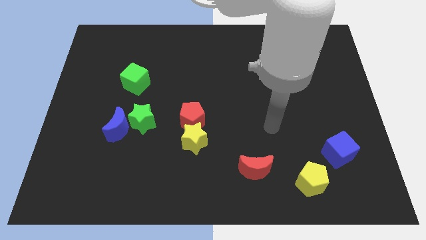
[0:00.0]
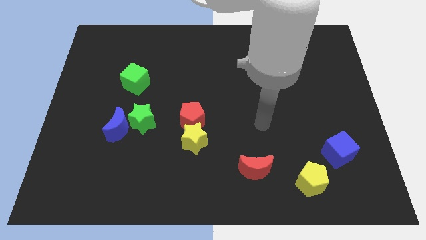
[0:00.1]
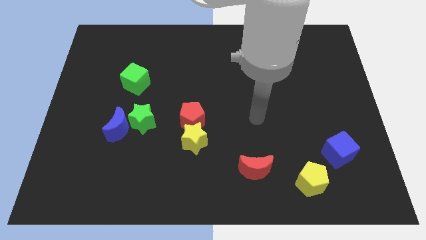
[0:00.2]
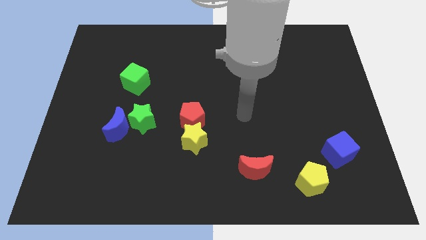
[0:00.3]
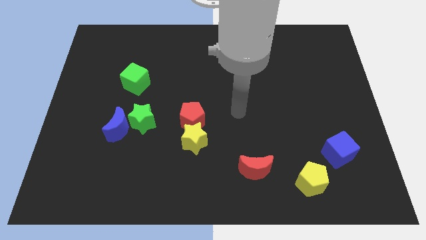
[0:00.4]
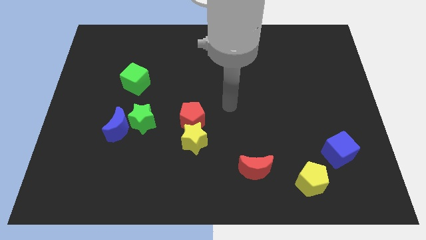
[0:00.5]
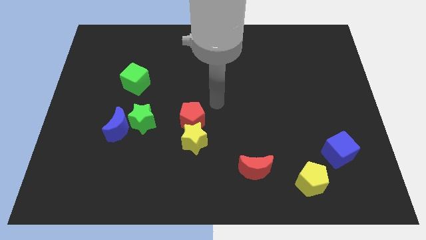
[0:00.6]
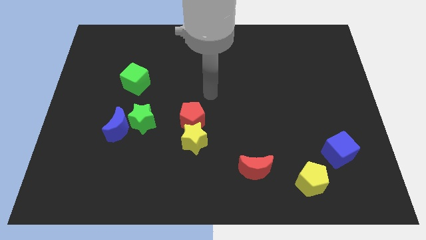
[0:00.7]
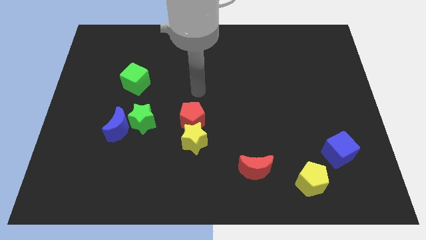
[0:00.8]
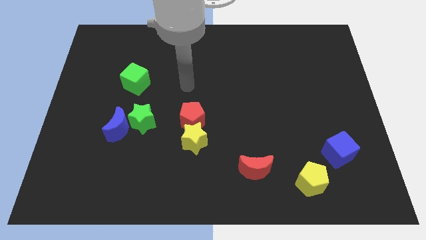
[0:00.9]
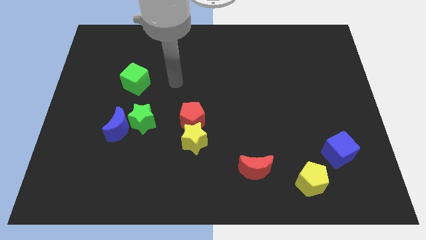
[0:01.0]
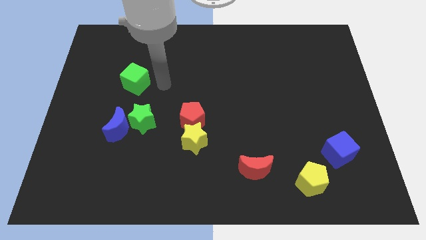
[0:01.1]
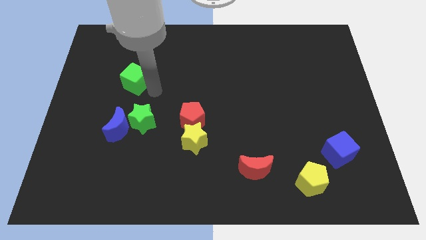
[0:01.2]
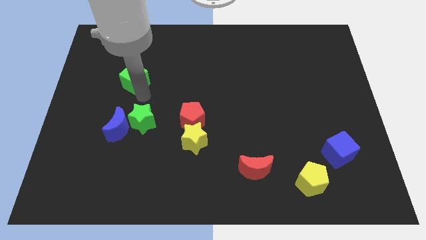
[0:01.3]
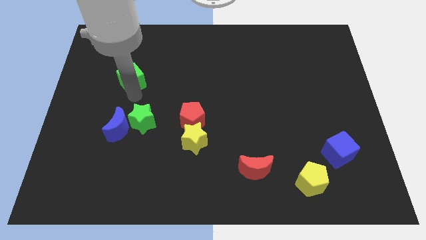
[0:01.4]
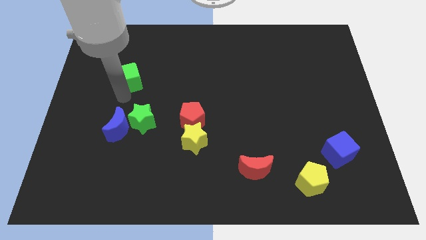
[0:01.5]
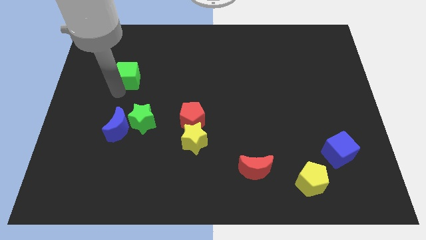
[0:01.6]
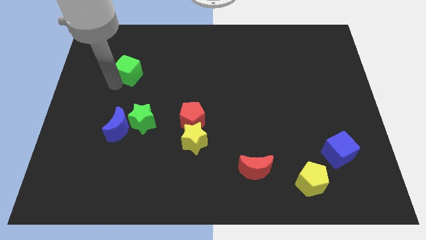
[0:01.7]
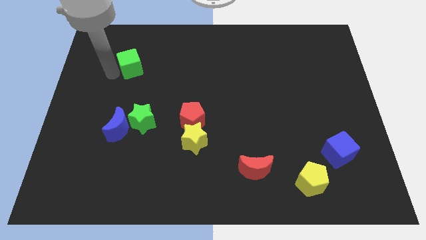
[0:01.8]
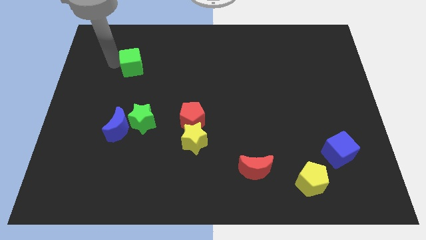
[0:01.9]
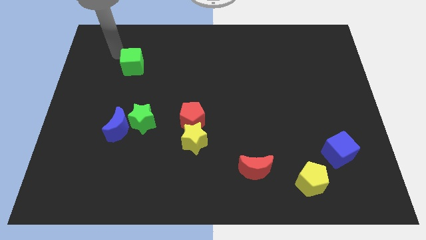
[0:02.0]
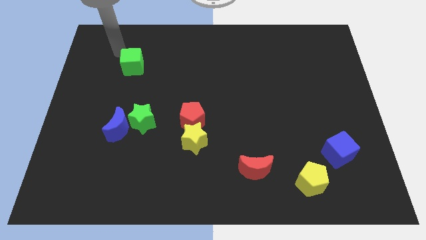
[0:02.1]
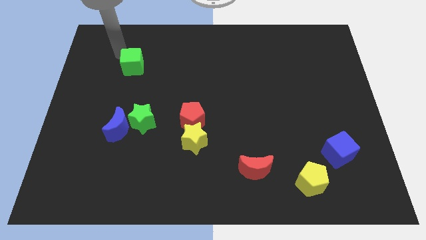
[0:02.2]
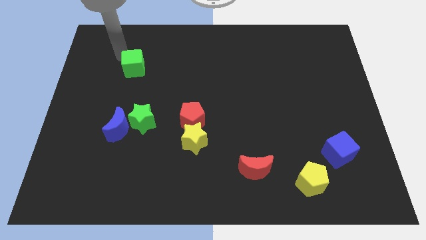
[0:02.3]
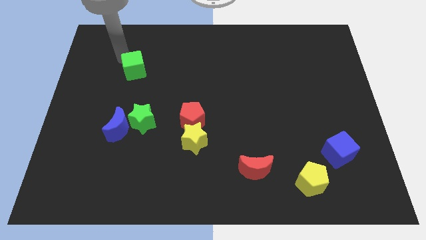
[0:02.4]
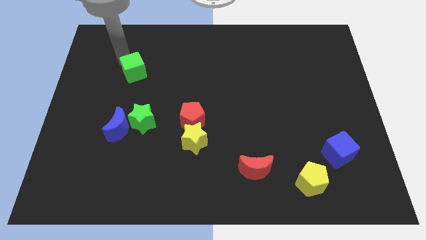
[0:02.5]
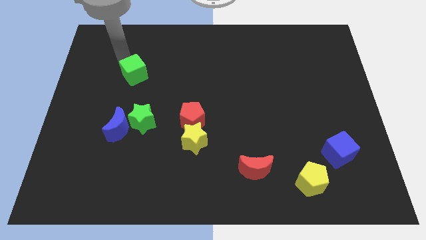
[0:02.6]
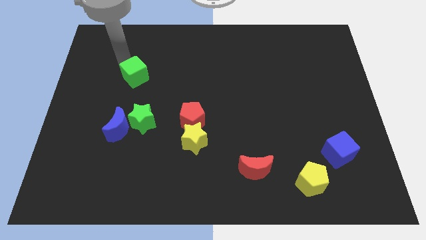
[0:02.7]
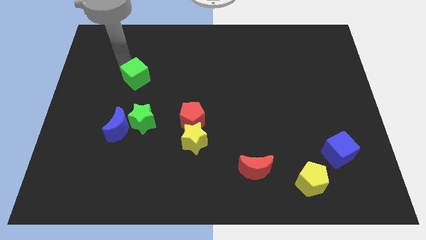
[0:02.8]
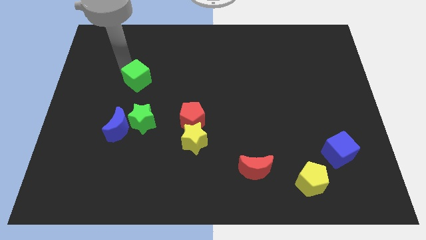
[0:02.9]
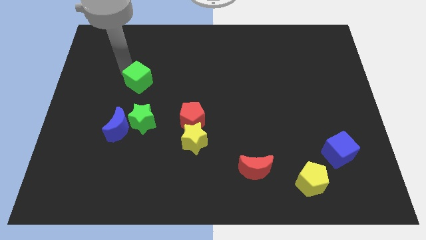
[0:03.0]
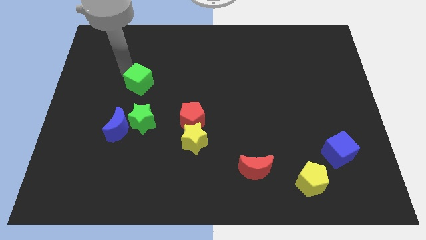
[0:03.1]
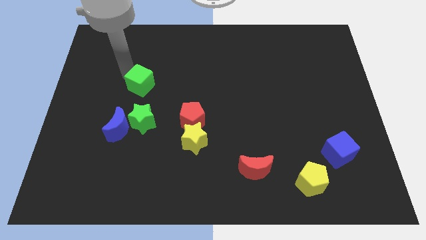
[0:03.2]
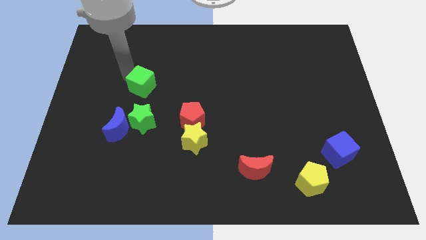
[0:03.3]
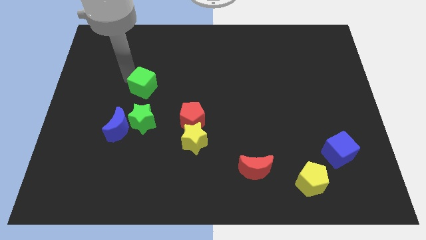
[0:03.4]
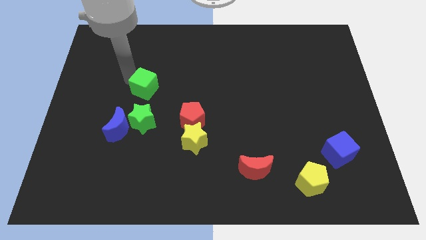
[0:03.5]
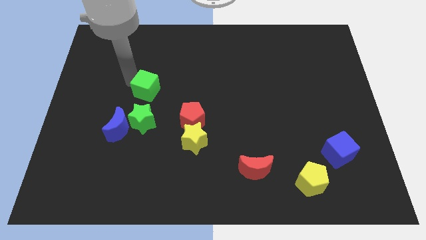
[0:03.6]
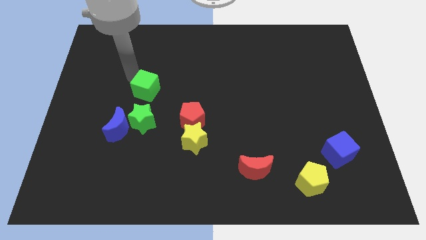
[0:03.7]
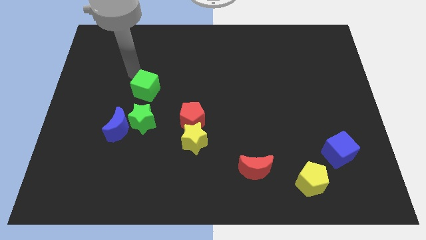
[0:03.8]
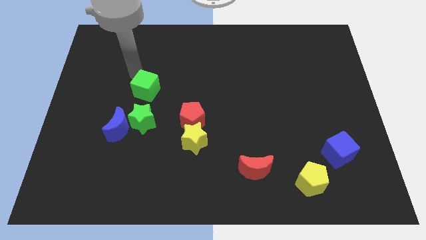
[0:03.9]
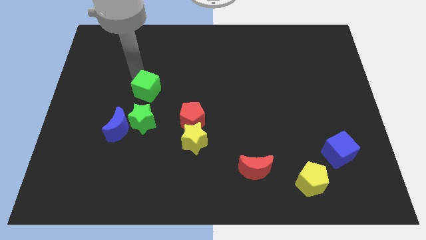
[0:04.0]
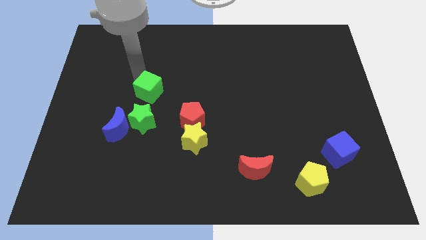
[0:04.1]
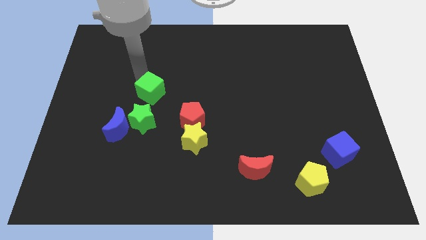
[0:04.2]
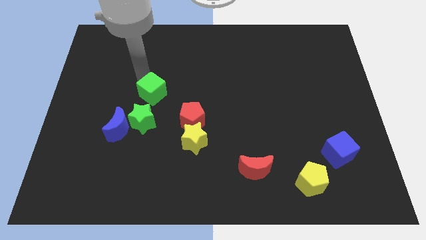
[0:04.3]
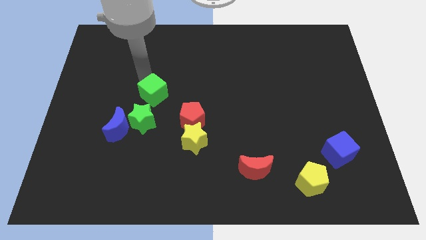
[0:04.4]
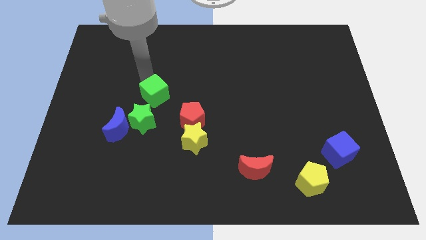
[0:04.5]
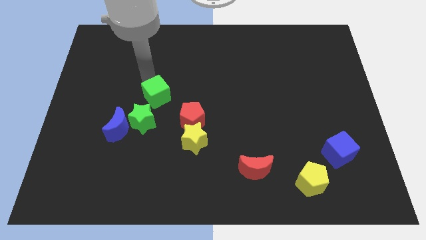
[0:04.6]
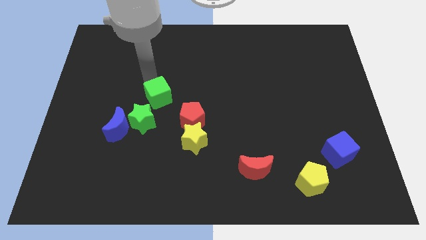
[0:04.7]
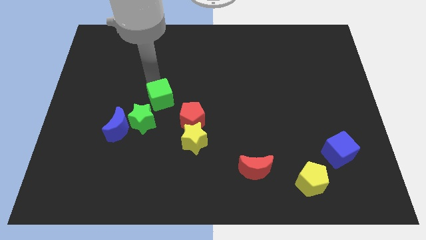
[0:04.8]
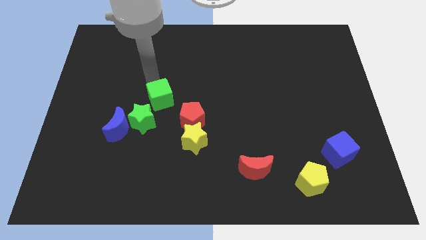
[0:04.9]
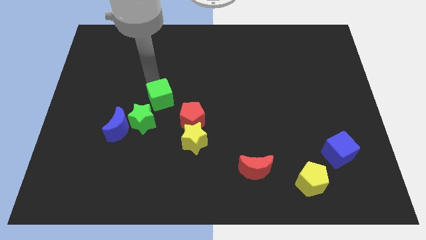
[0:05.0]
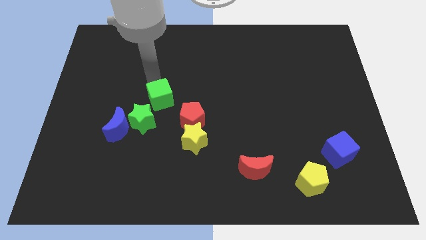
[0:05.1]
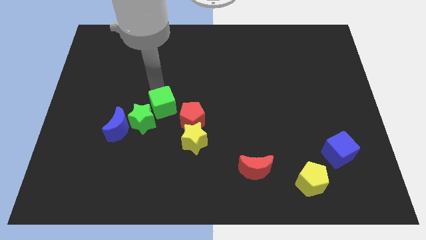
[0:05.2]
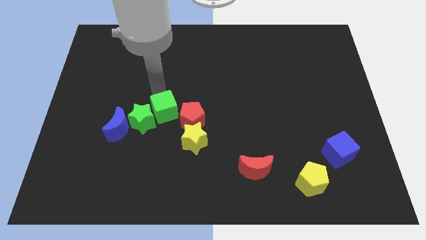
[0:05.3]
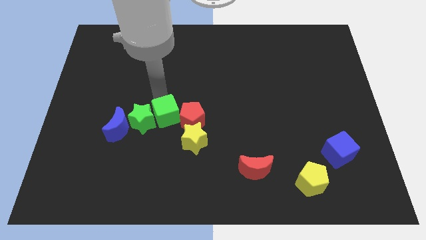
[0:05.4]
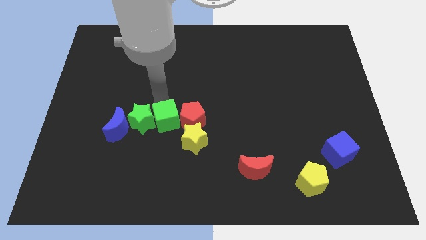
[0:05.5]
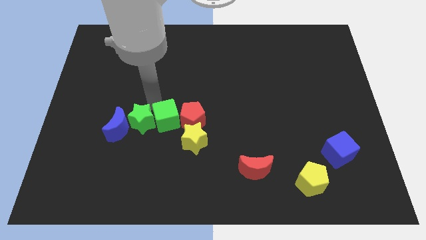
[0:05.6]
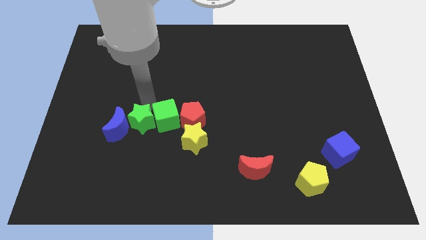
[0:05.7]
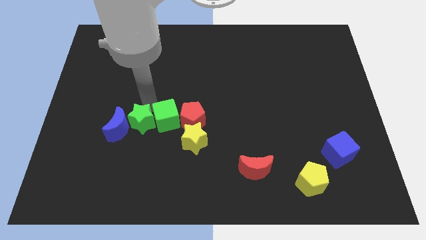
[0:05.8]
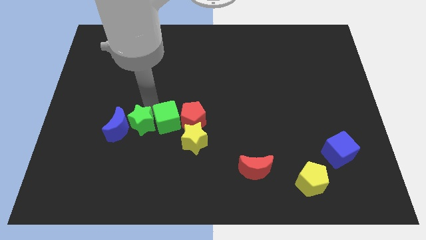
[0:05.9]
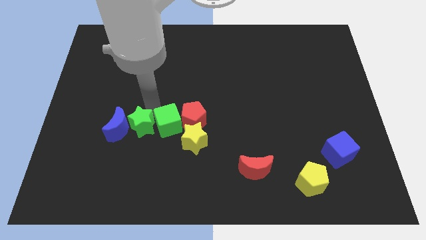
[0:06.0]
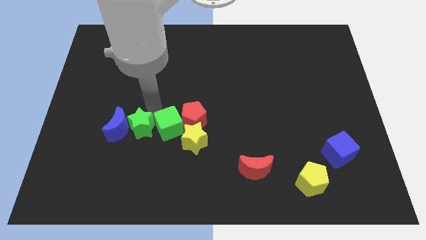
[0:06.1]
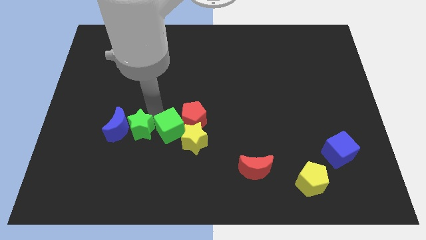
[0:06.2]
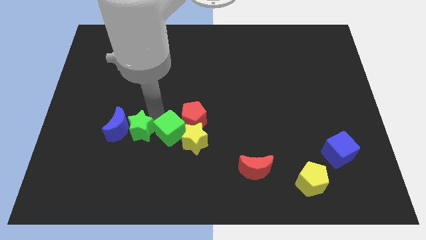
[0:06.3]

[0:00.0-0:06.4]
move the green cube next to the yellow star

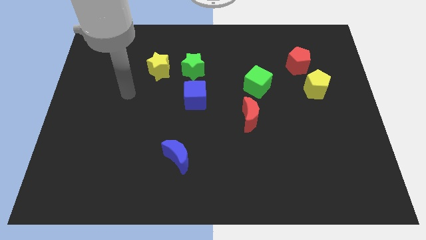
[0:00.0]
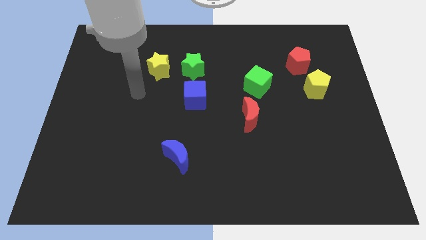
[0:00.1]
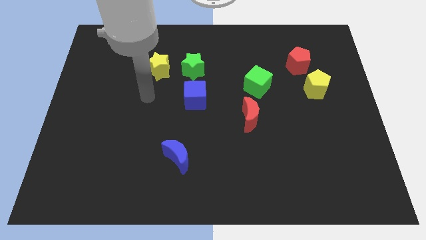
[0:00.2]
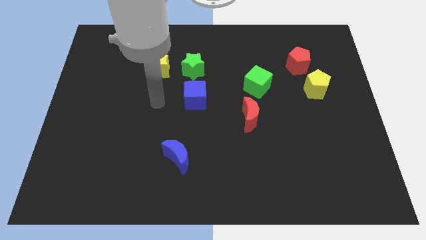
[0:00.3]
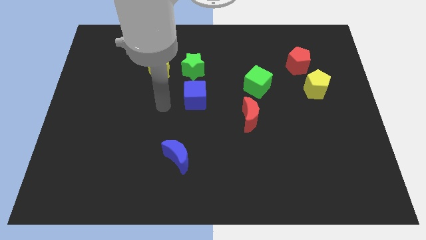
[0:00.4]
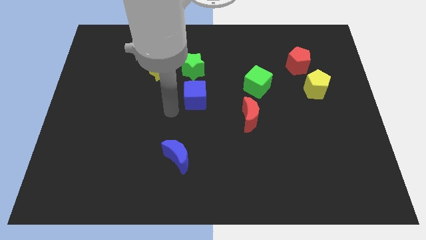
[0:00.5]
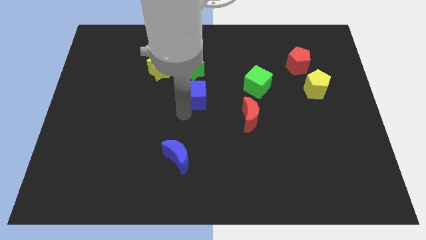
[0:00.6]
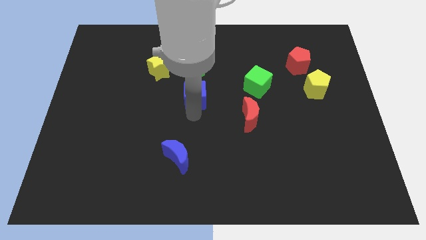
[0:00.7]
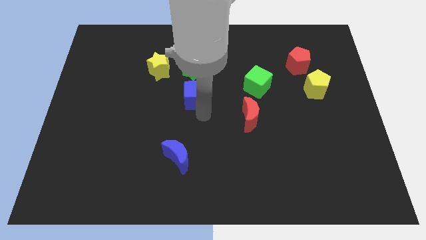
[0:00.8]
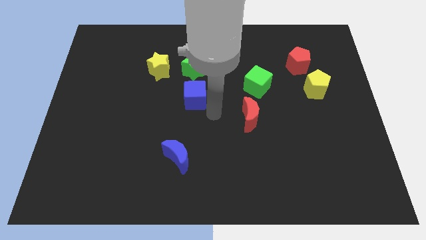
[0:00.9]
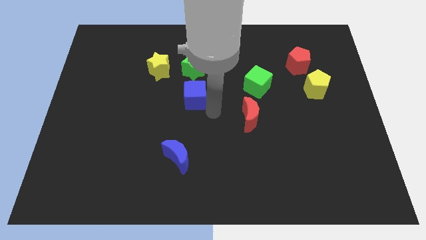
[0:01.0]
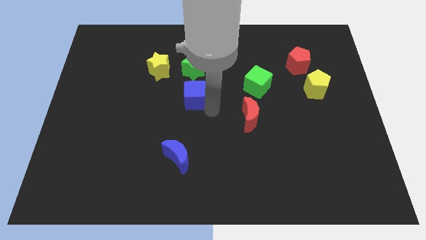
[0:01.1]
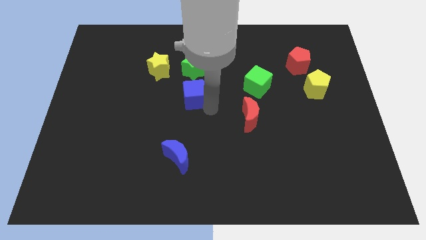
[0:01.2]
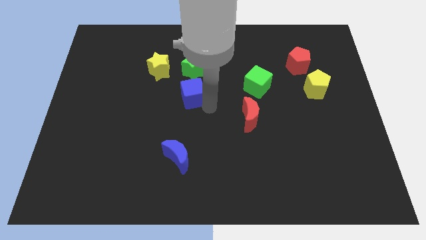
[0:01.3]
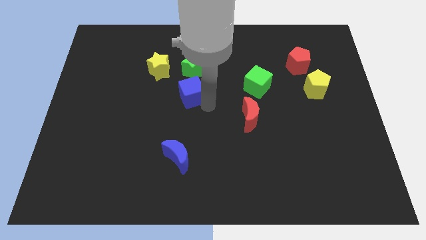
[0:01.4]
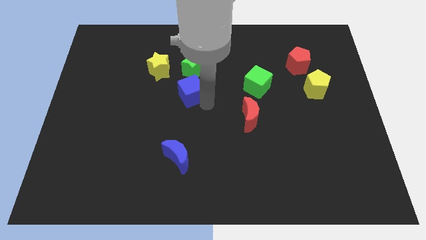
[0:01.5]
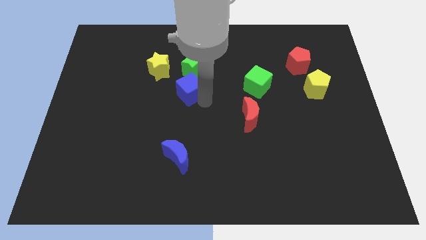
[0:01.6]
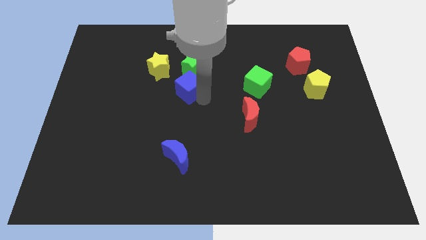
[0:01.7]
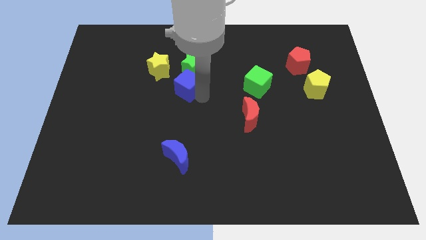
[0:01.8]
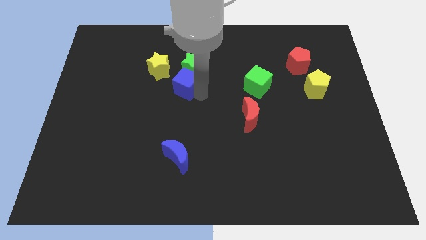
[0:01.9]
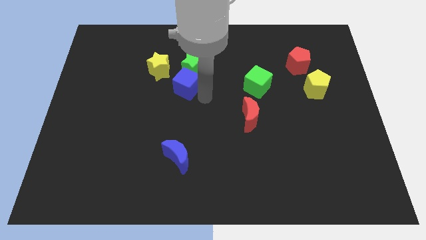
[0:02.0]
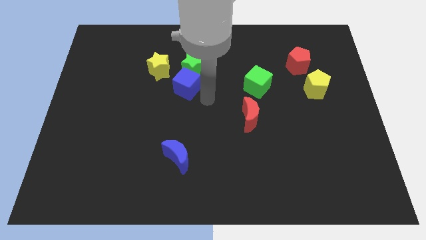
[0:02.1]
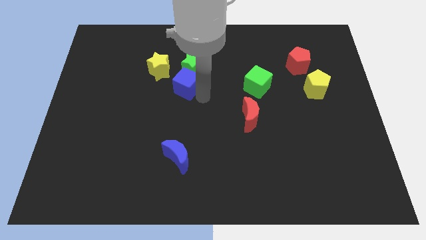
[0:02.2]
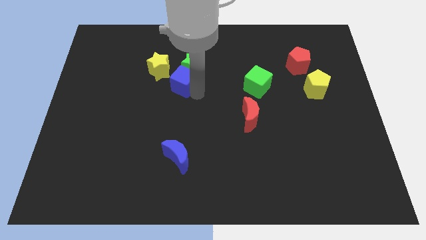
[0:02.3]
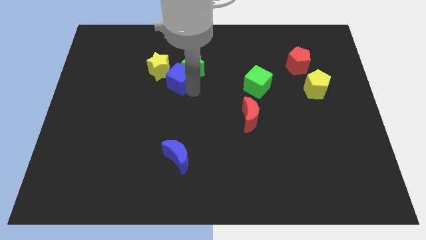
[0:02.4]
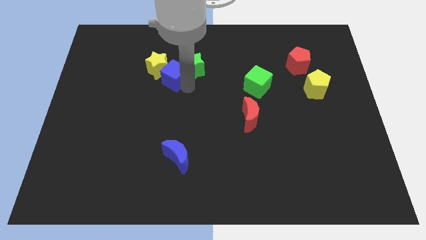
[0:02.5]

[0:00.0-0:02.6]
push the blue cube next to the yellow star
